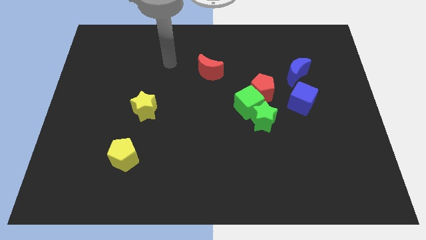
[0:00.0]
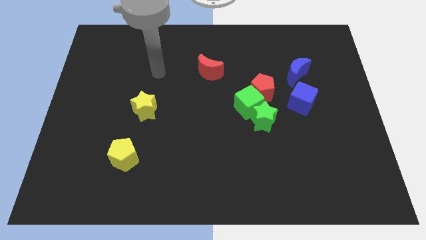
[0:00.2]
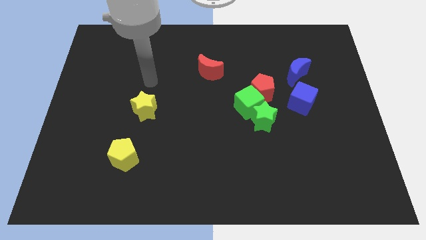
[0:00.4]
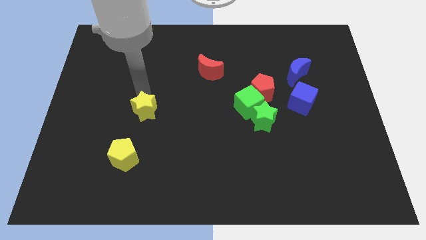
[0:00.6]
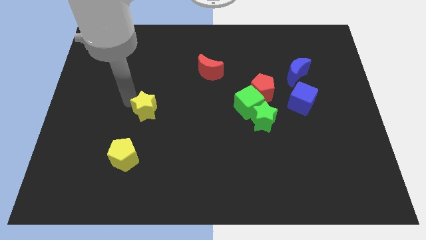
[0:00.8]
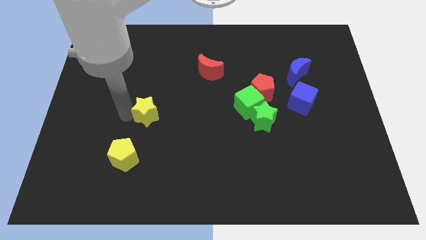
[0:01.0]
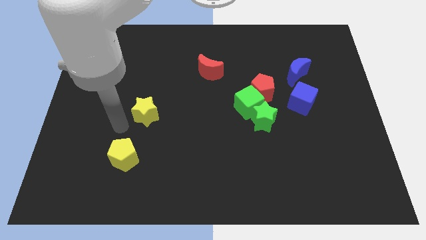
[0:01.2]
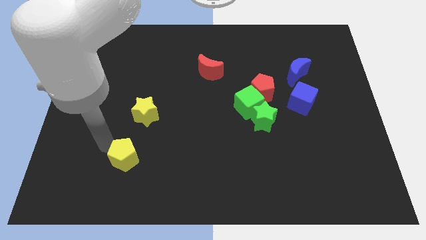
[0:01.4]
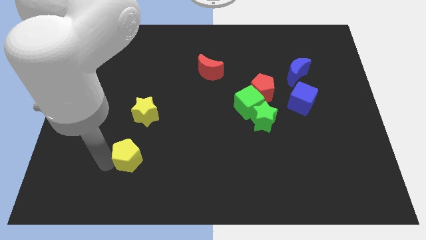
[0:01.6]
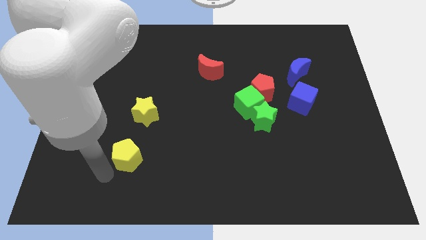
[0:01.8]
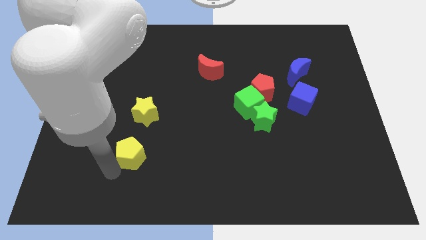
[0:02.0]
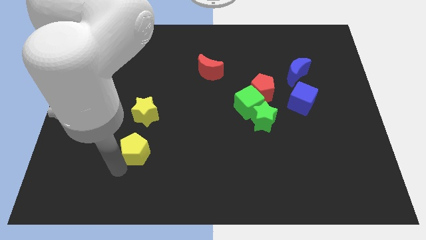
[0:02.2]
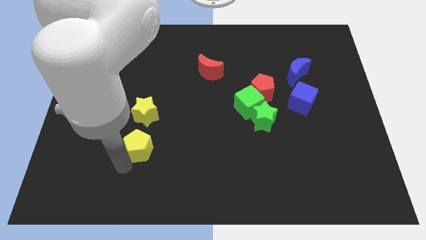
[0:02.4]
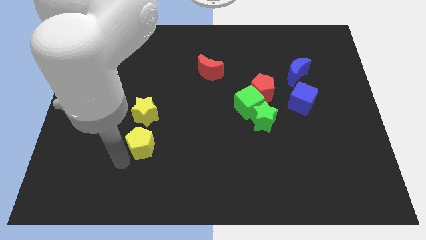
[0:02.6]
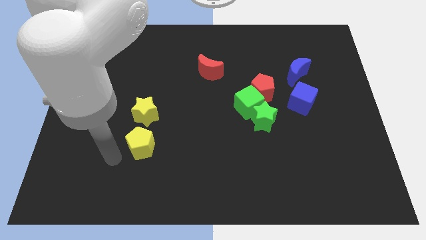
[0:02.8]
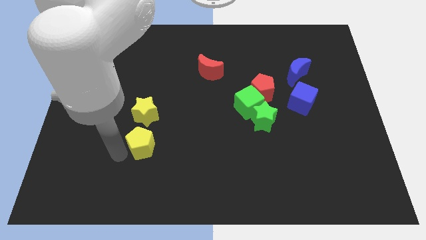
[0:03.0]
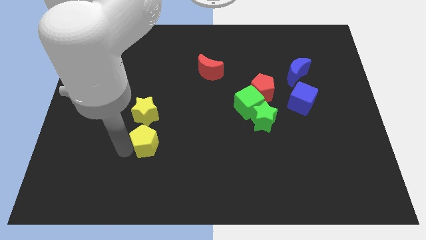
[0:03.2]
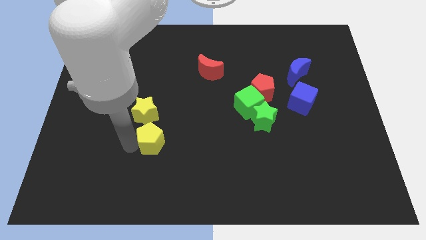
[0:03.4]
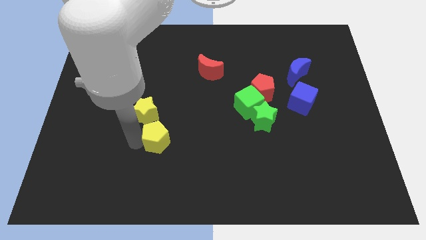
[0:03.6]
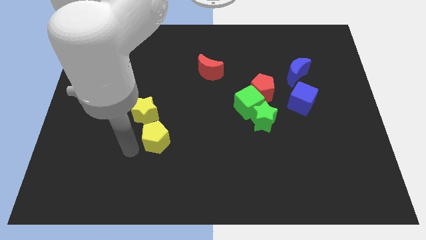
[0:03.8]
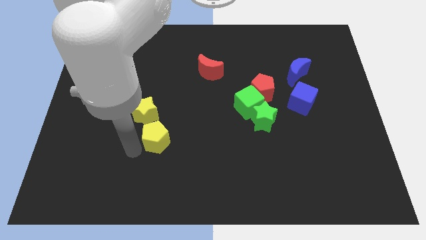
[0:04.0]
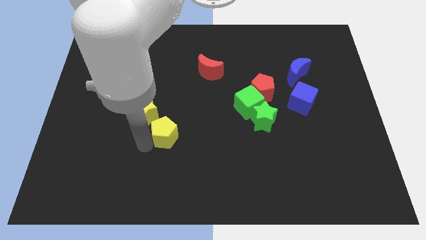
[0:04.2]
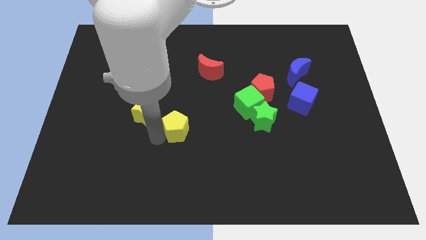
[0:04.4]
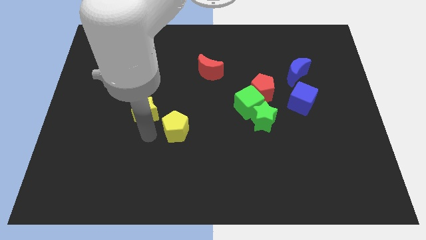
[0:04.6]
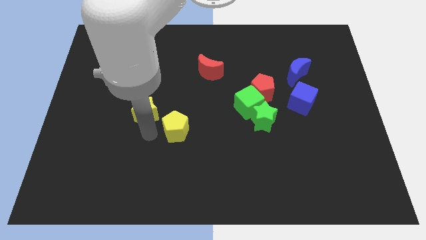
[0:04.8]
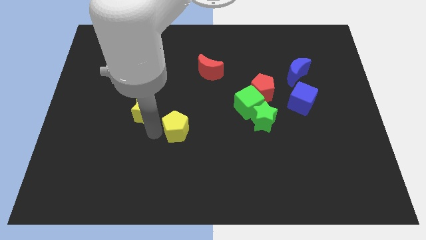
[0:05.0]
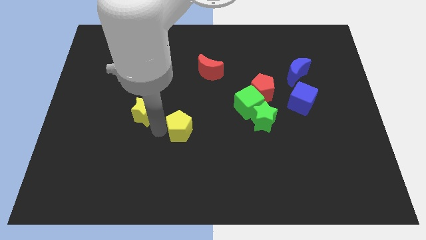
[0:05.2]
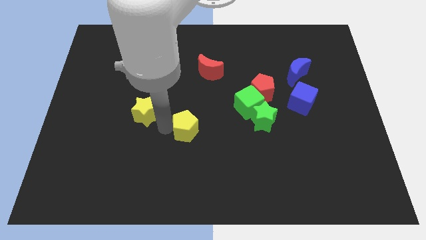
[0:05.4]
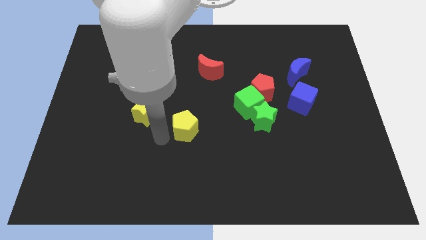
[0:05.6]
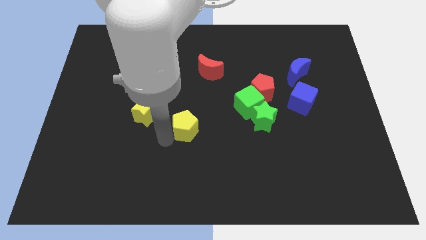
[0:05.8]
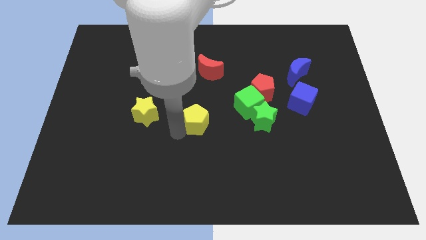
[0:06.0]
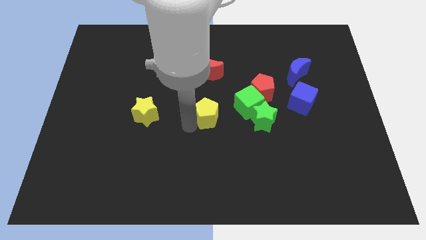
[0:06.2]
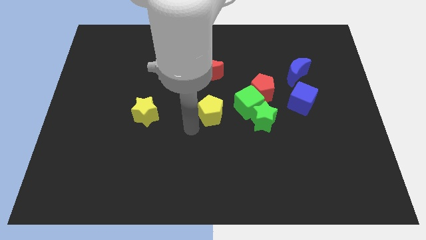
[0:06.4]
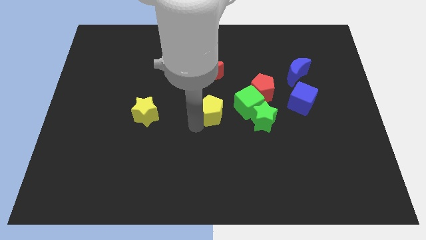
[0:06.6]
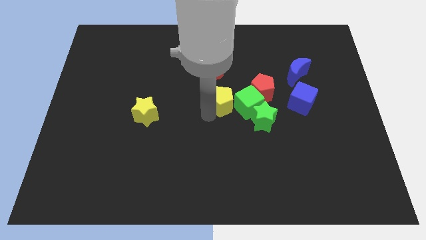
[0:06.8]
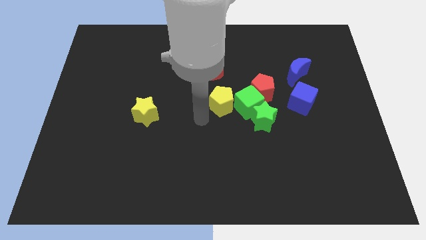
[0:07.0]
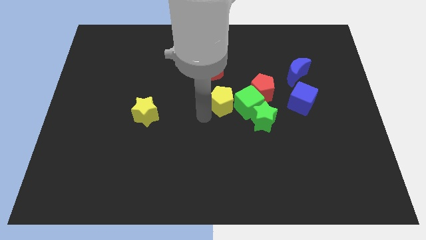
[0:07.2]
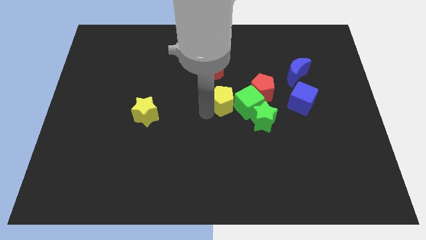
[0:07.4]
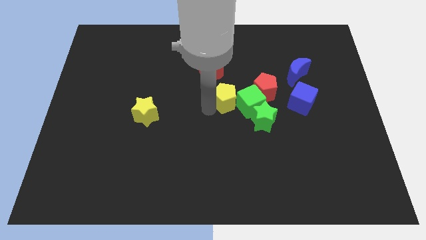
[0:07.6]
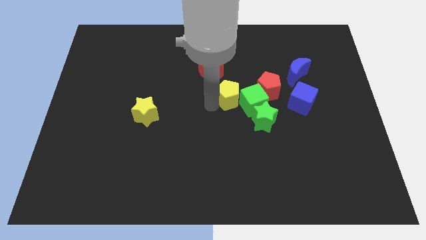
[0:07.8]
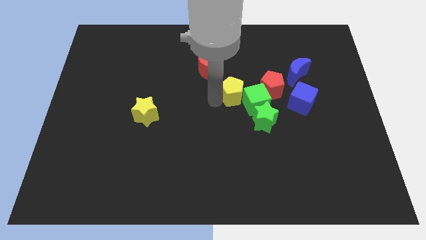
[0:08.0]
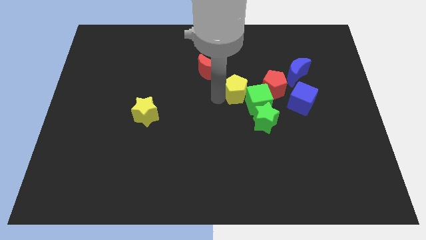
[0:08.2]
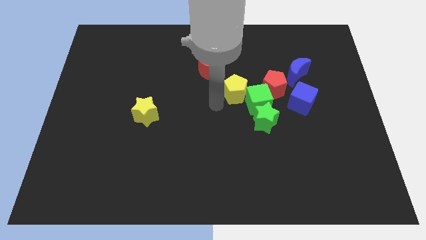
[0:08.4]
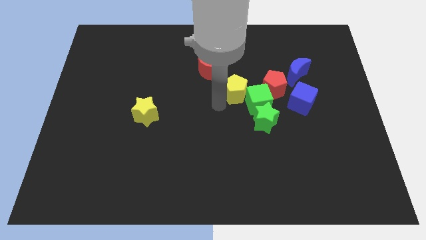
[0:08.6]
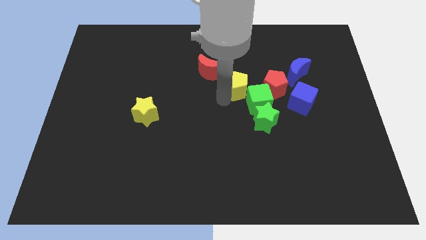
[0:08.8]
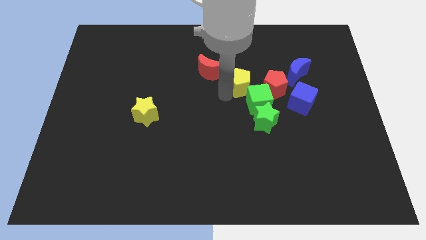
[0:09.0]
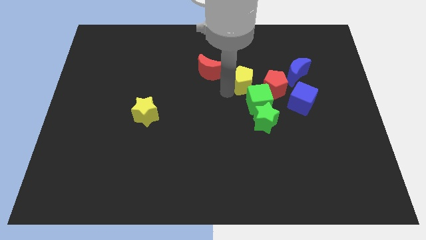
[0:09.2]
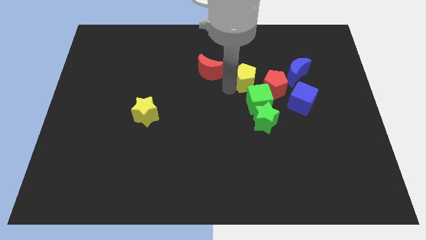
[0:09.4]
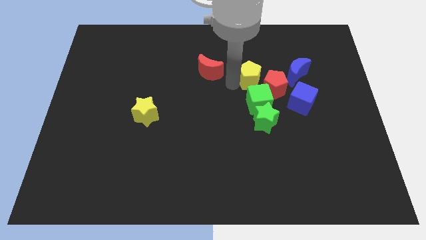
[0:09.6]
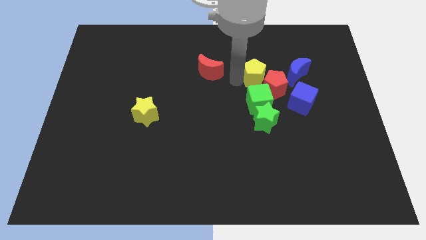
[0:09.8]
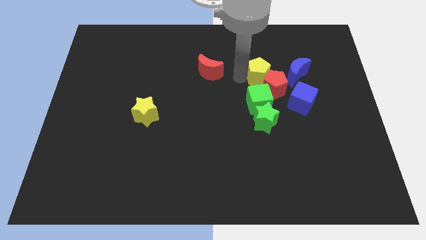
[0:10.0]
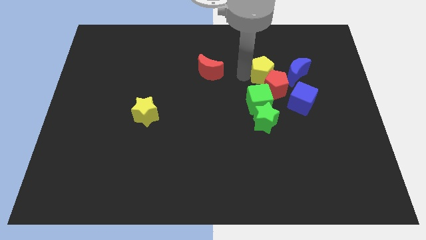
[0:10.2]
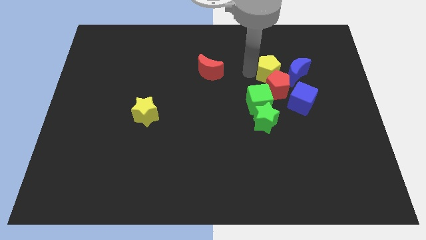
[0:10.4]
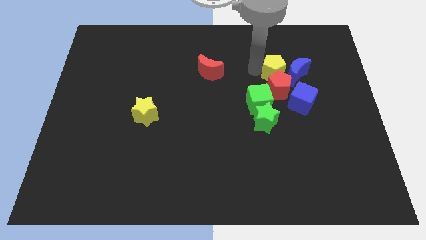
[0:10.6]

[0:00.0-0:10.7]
put the yellow pentagon towards the blue moon

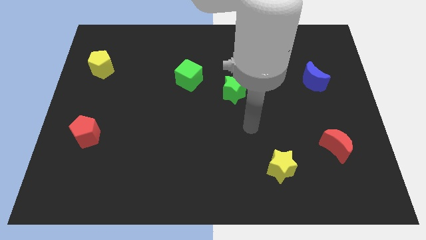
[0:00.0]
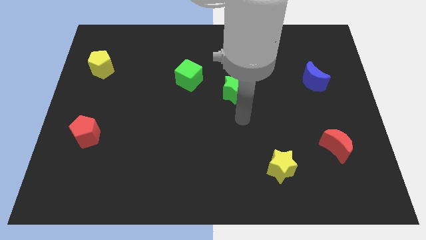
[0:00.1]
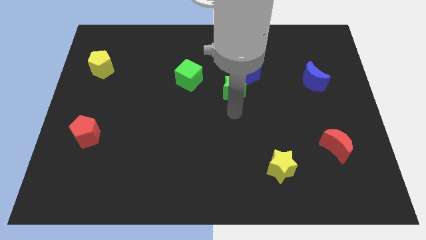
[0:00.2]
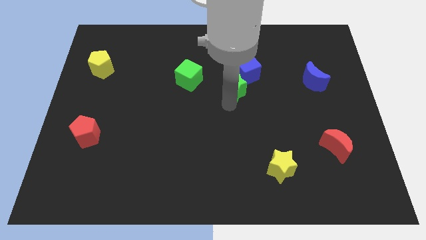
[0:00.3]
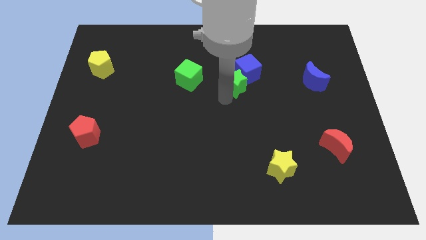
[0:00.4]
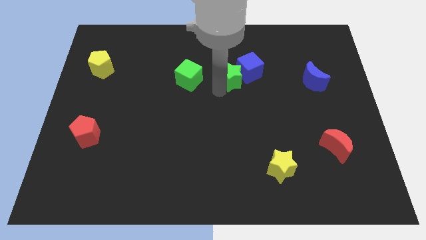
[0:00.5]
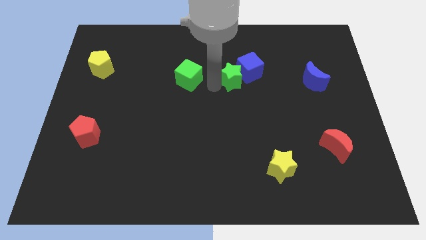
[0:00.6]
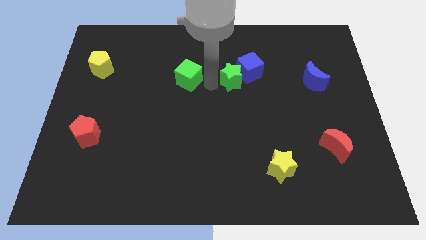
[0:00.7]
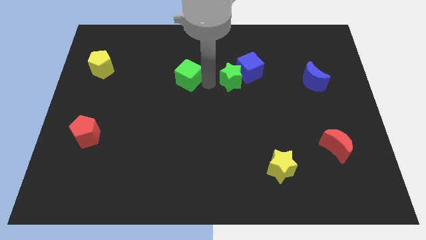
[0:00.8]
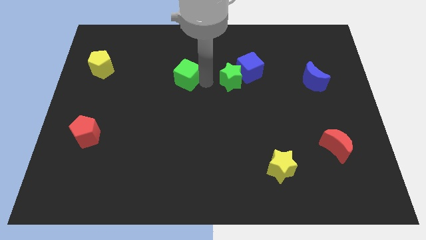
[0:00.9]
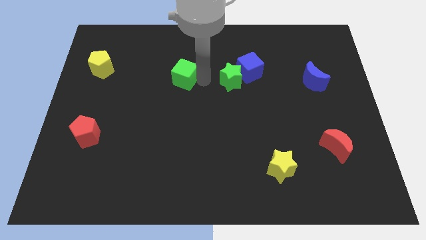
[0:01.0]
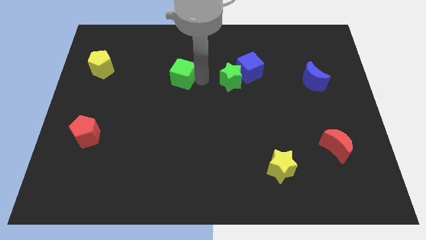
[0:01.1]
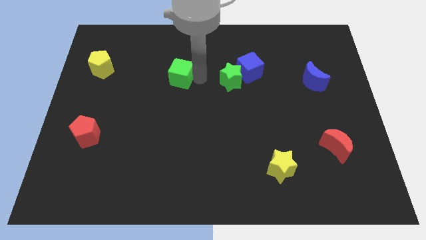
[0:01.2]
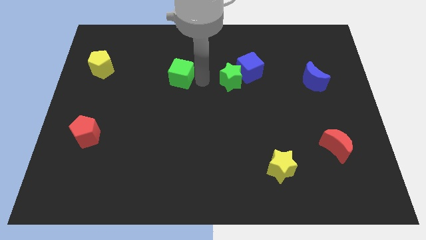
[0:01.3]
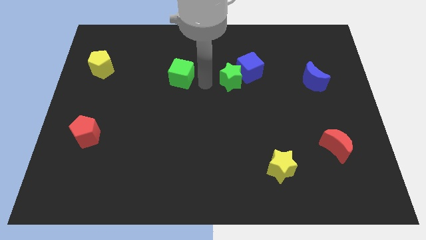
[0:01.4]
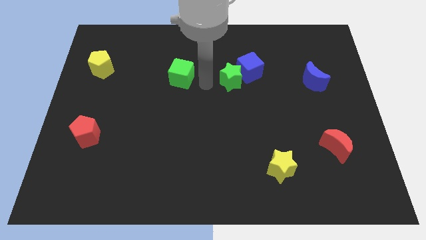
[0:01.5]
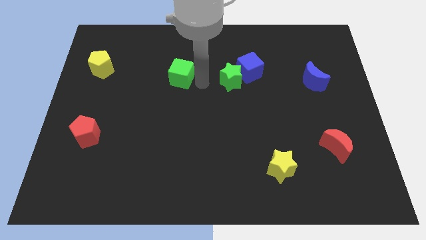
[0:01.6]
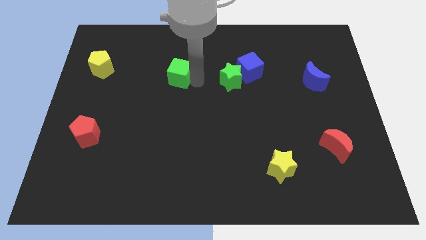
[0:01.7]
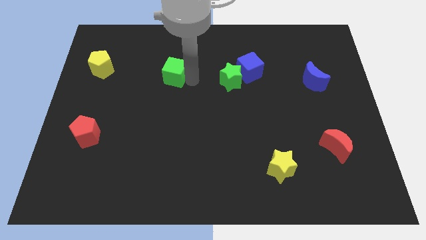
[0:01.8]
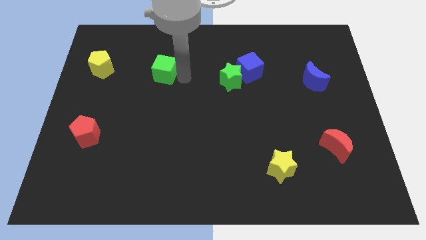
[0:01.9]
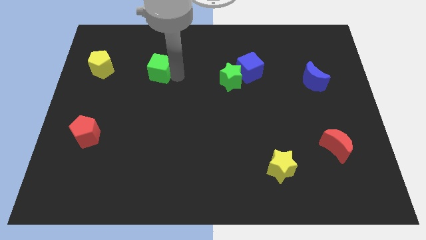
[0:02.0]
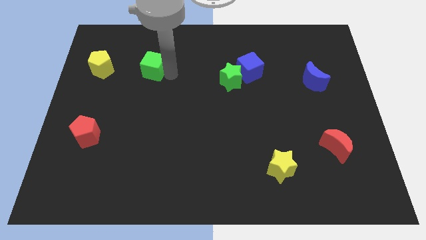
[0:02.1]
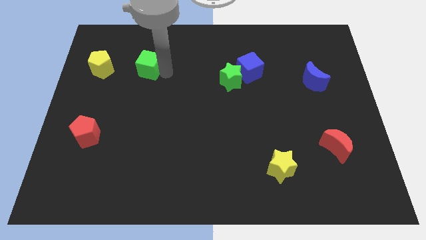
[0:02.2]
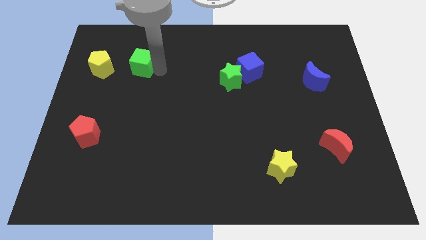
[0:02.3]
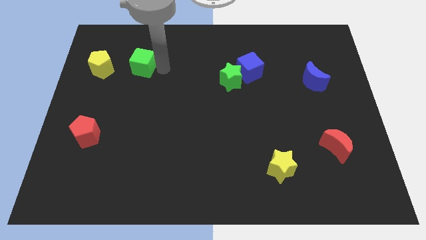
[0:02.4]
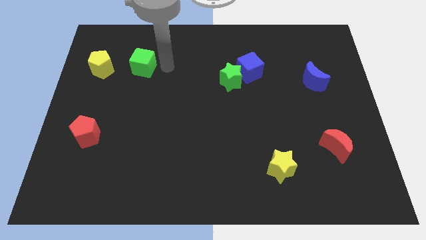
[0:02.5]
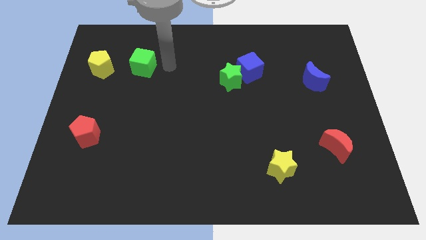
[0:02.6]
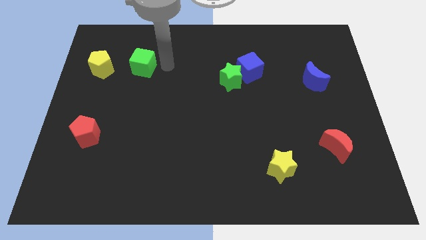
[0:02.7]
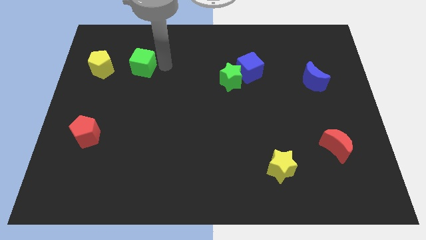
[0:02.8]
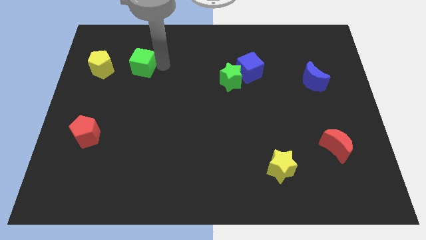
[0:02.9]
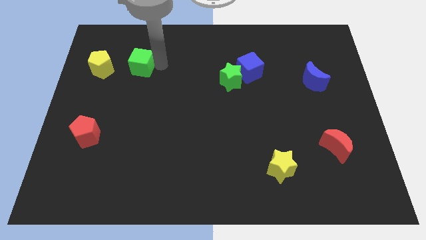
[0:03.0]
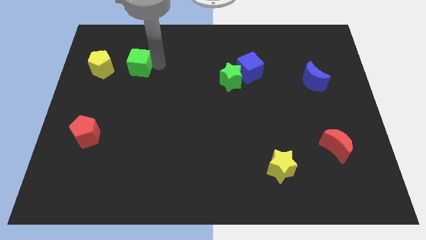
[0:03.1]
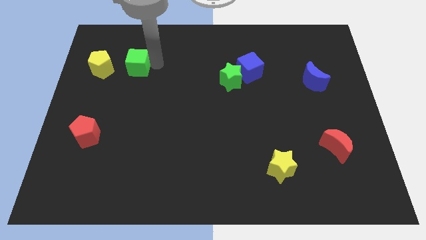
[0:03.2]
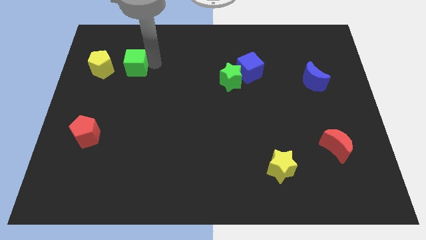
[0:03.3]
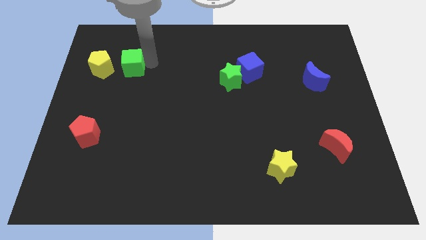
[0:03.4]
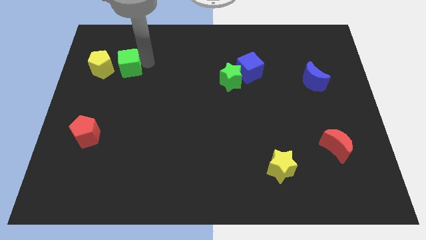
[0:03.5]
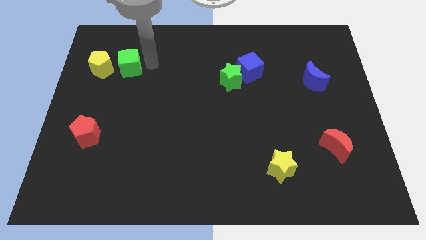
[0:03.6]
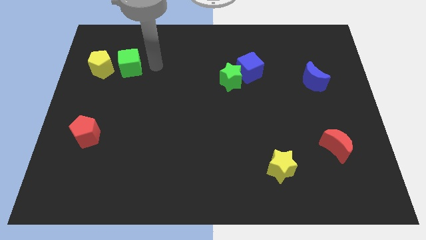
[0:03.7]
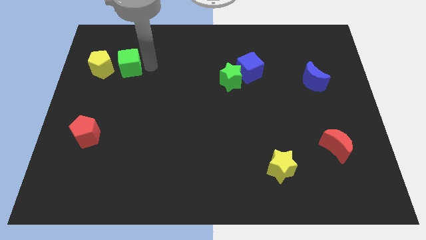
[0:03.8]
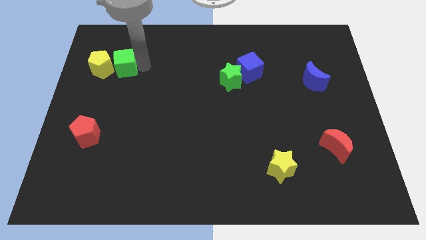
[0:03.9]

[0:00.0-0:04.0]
slide the green cube close to the yellow pentagon
